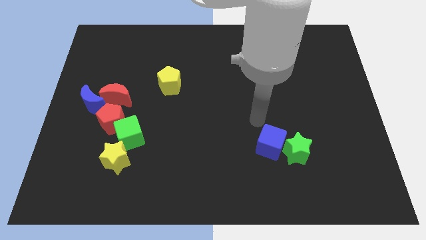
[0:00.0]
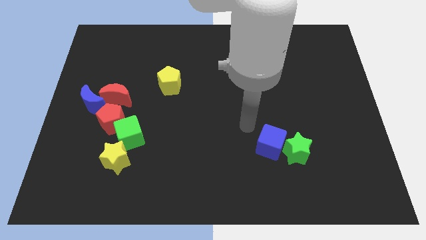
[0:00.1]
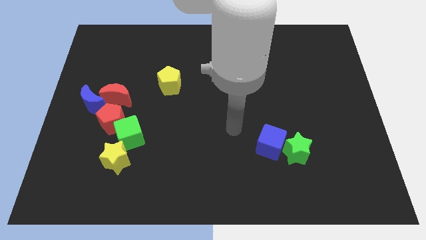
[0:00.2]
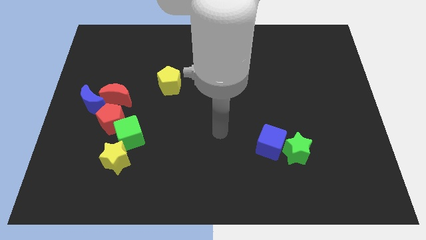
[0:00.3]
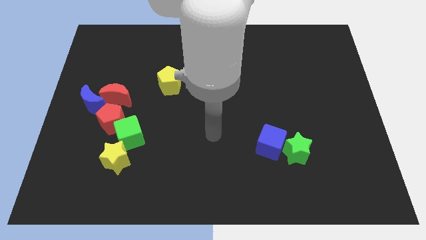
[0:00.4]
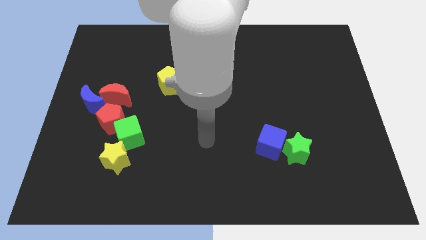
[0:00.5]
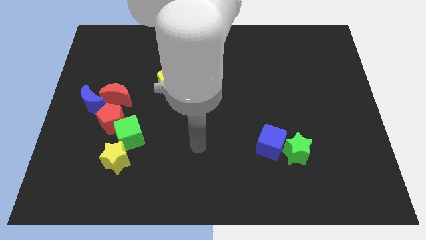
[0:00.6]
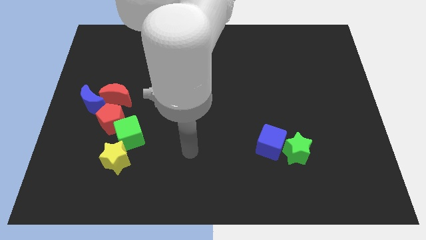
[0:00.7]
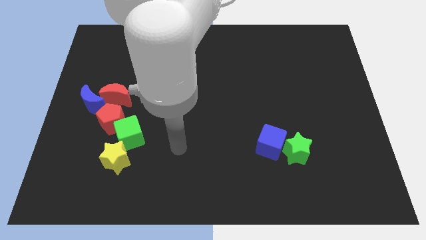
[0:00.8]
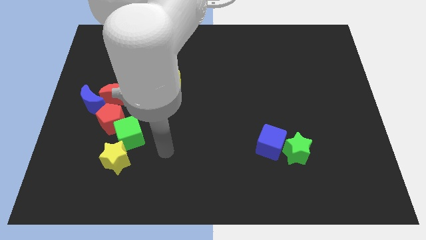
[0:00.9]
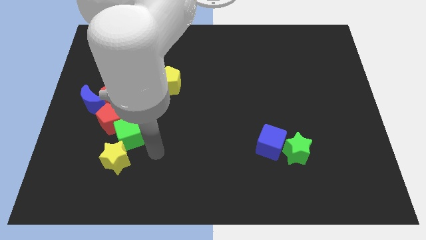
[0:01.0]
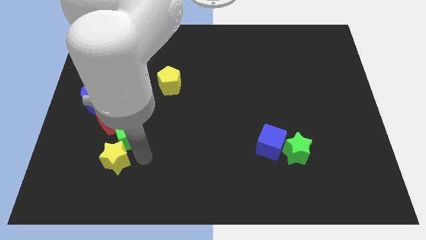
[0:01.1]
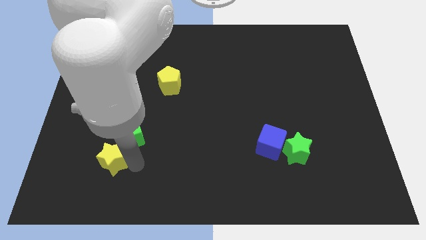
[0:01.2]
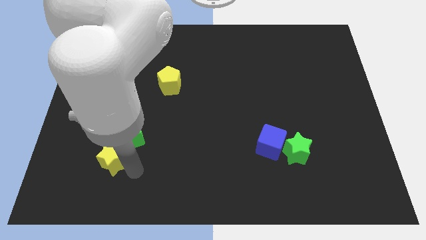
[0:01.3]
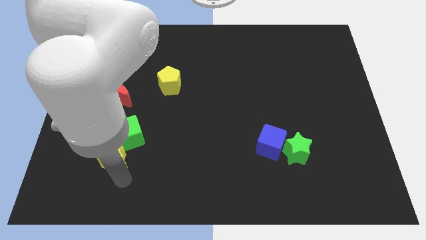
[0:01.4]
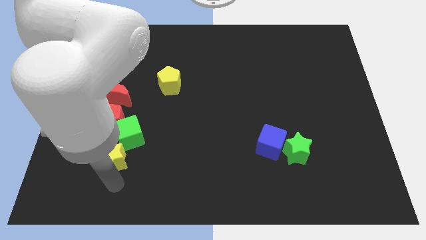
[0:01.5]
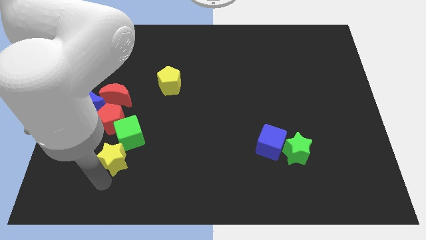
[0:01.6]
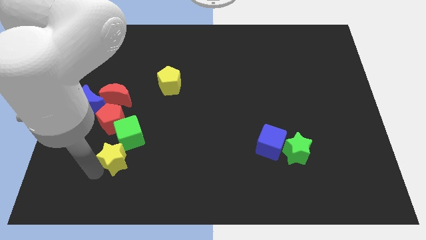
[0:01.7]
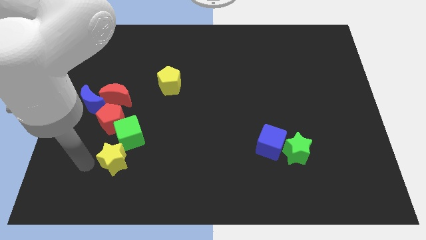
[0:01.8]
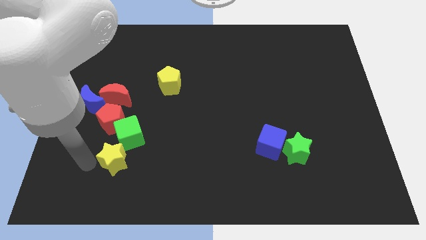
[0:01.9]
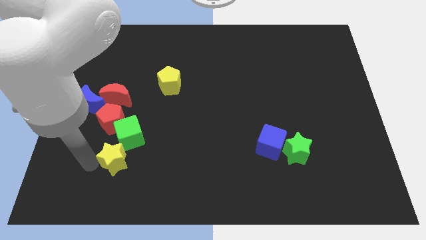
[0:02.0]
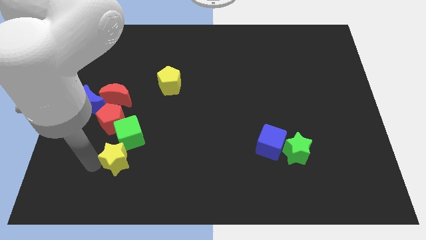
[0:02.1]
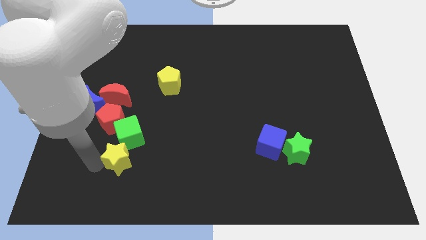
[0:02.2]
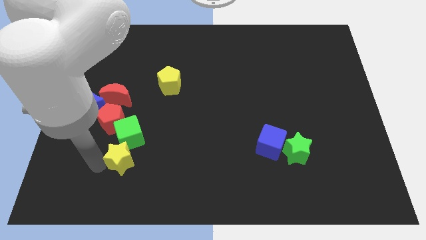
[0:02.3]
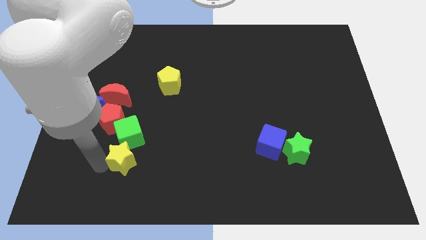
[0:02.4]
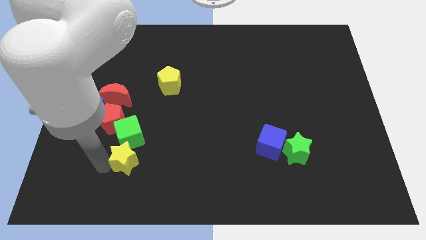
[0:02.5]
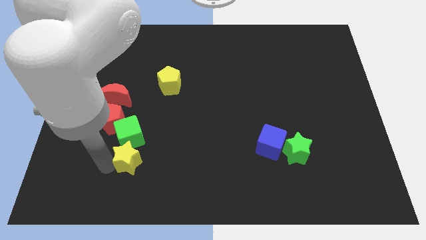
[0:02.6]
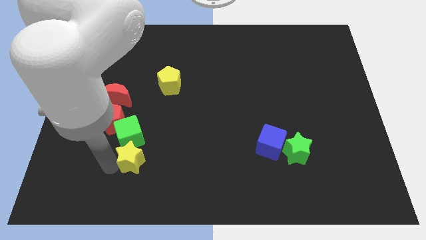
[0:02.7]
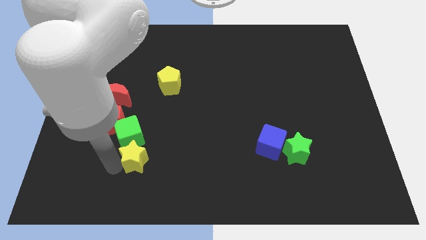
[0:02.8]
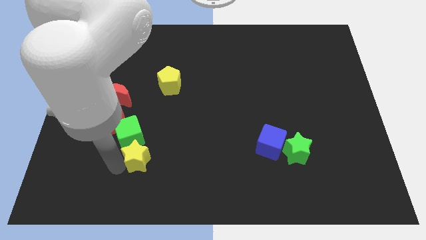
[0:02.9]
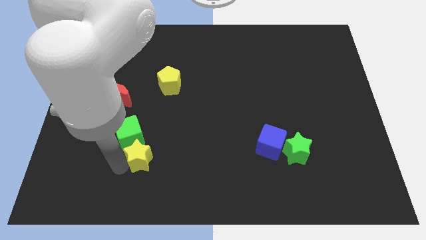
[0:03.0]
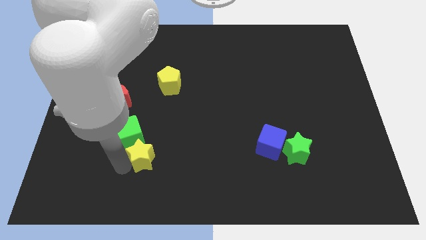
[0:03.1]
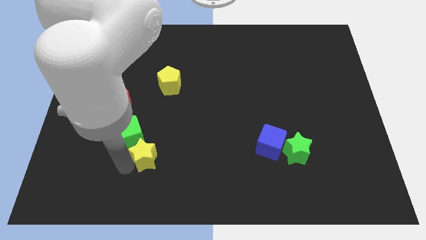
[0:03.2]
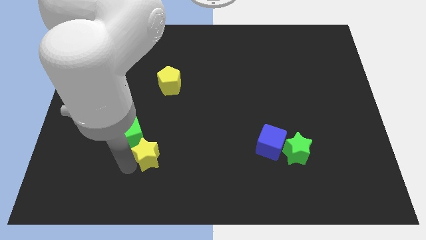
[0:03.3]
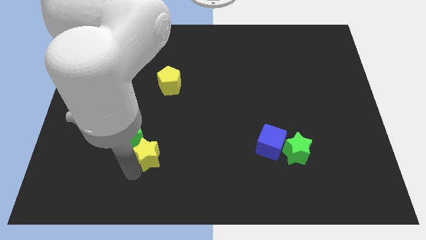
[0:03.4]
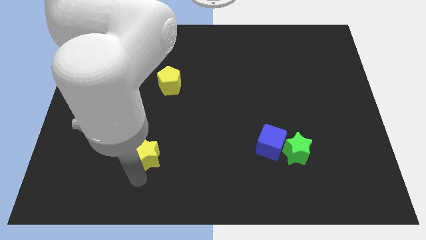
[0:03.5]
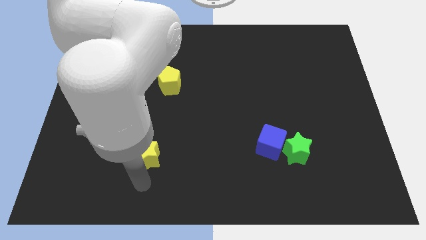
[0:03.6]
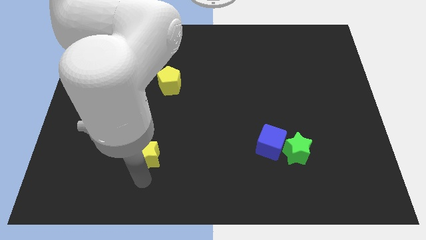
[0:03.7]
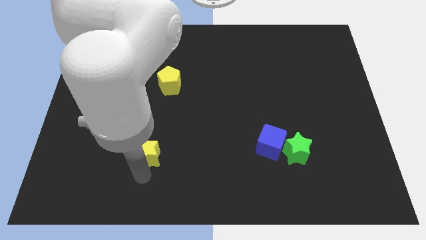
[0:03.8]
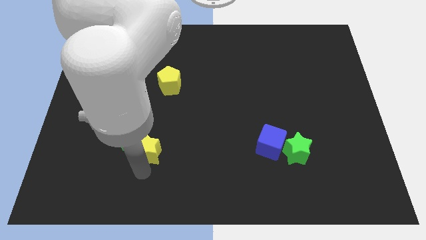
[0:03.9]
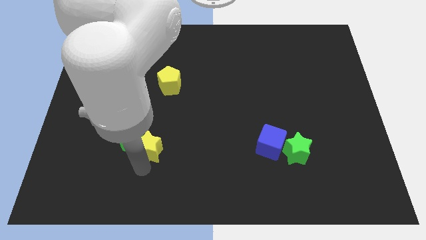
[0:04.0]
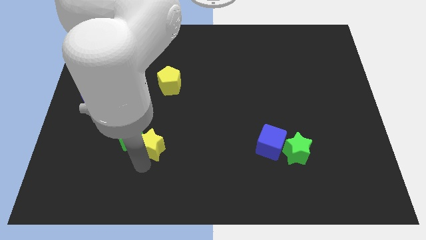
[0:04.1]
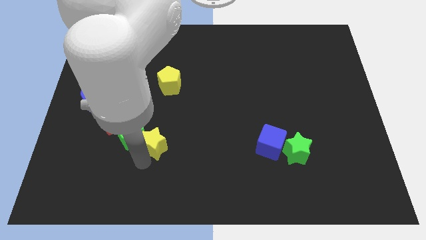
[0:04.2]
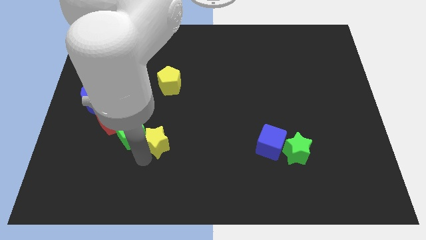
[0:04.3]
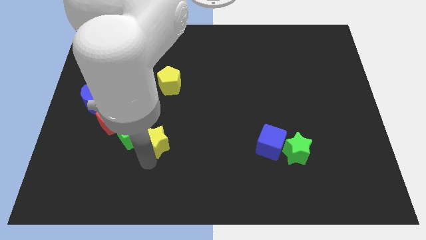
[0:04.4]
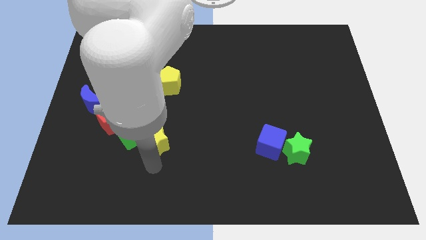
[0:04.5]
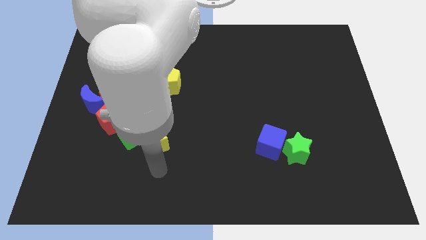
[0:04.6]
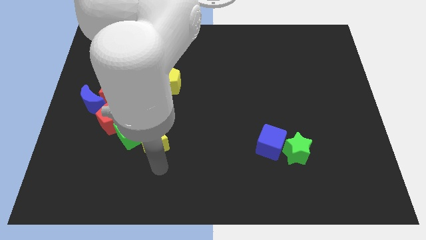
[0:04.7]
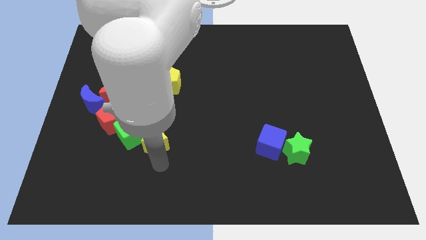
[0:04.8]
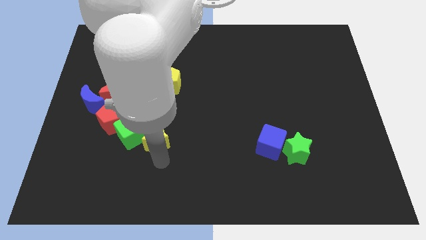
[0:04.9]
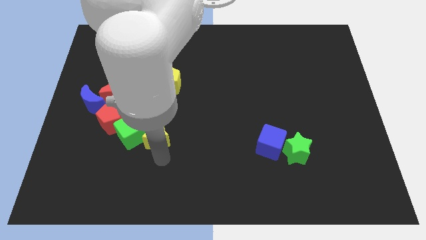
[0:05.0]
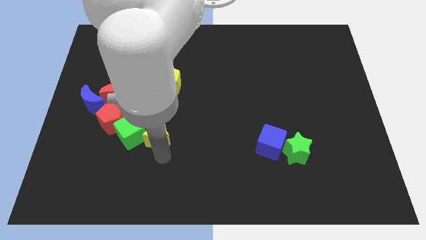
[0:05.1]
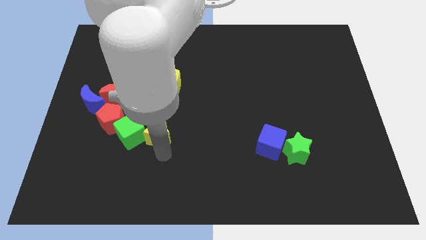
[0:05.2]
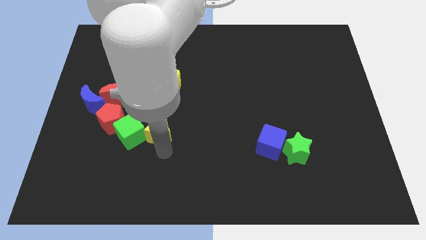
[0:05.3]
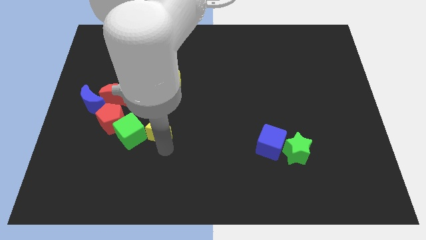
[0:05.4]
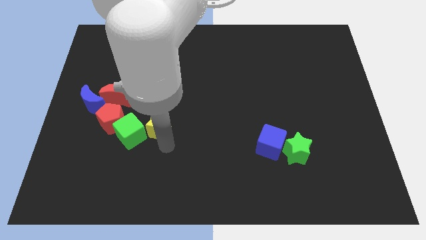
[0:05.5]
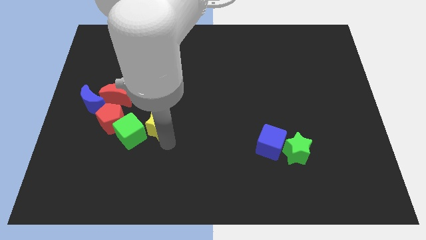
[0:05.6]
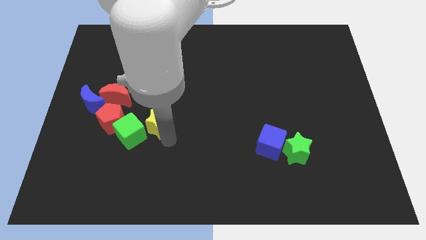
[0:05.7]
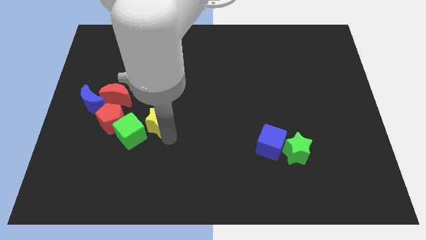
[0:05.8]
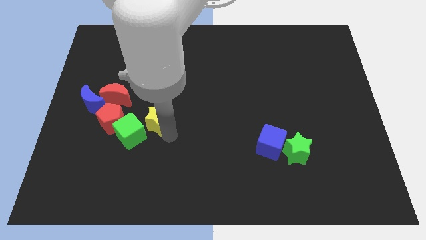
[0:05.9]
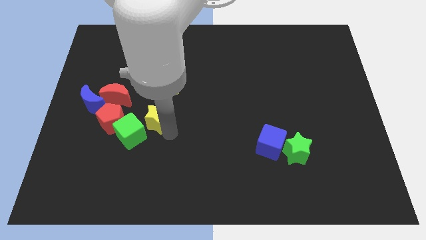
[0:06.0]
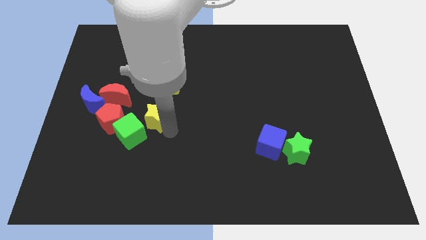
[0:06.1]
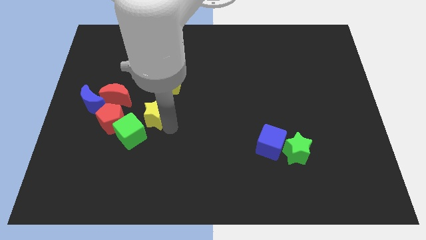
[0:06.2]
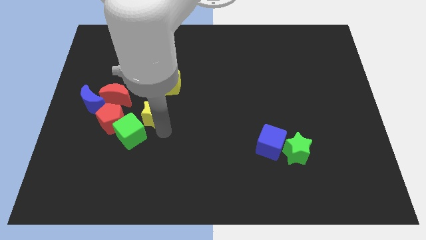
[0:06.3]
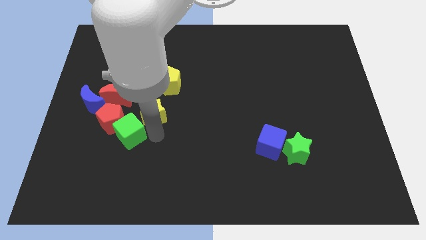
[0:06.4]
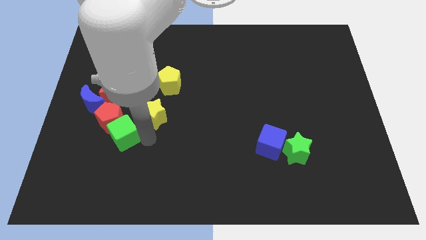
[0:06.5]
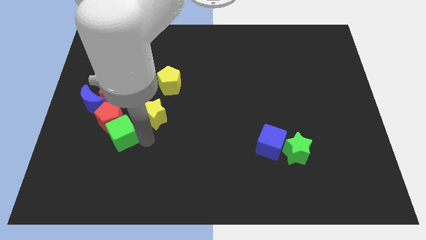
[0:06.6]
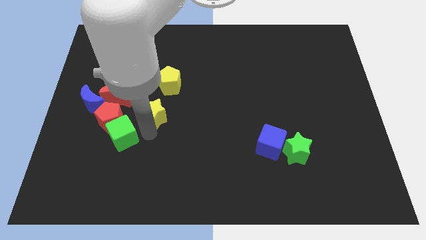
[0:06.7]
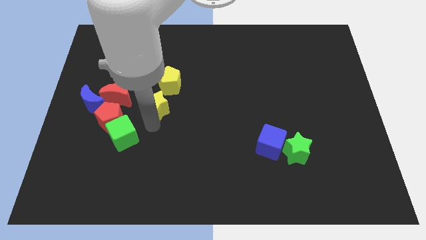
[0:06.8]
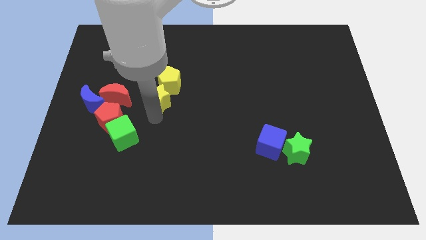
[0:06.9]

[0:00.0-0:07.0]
slide the yellow star towards the yellow pentagon
